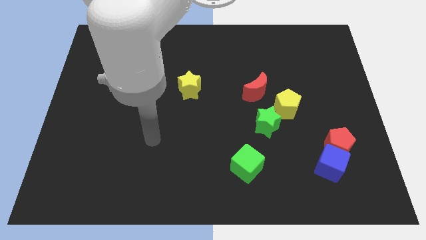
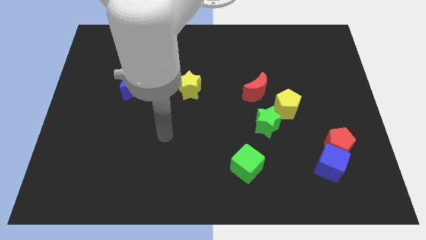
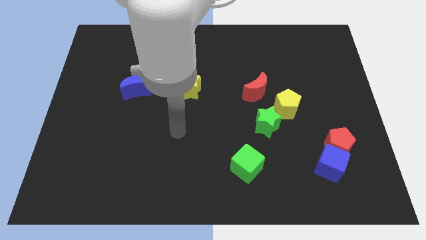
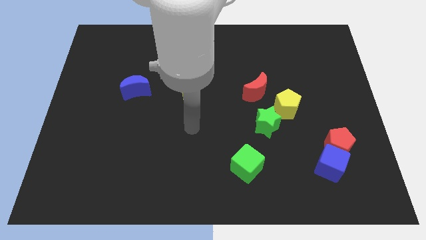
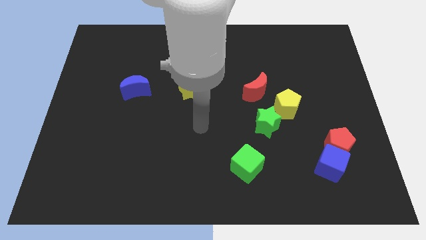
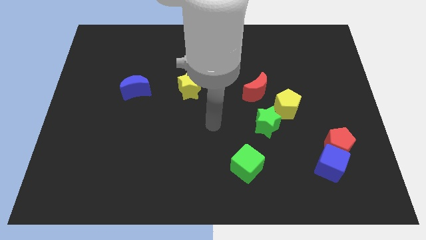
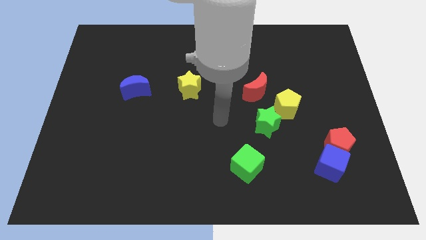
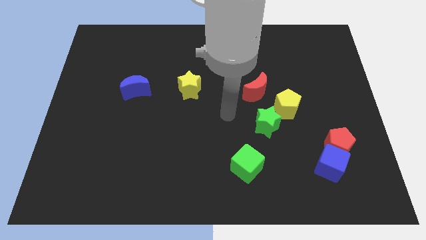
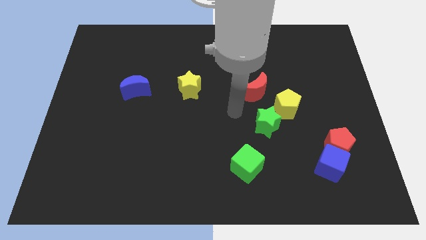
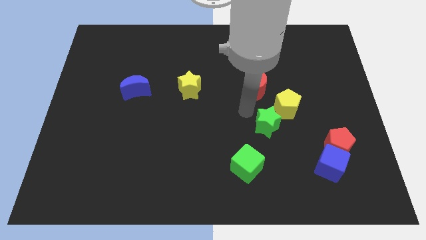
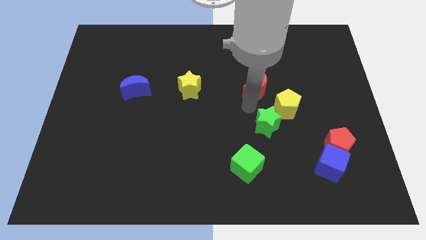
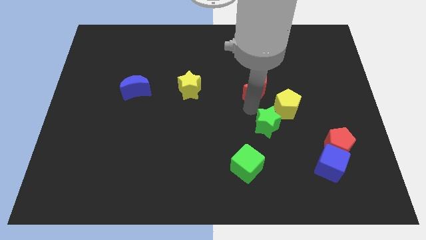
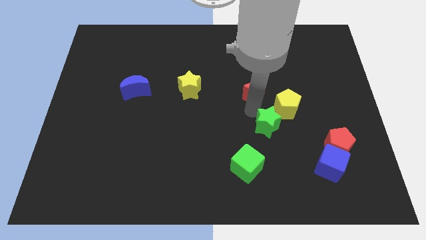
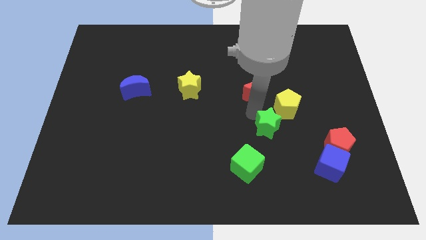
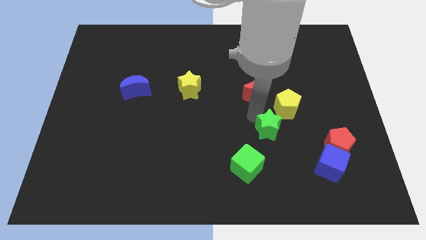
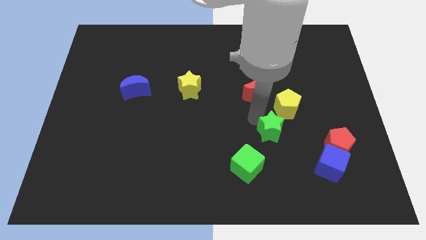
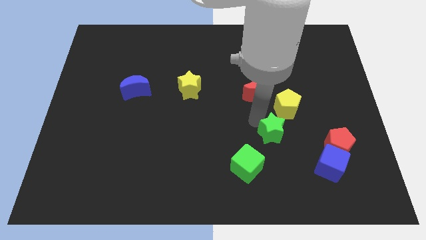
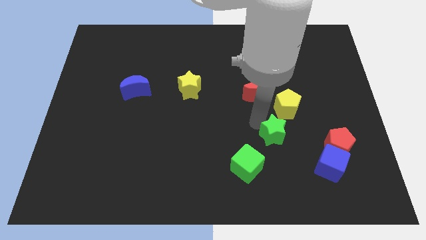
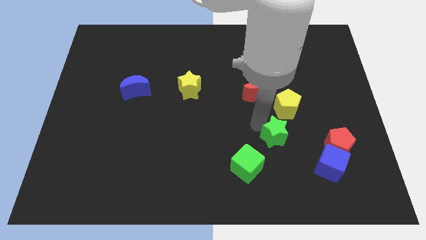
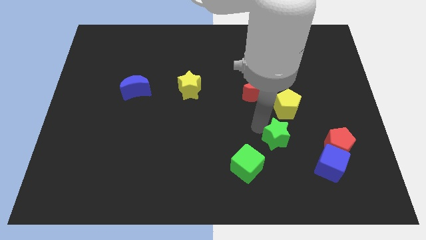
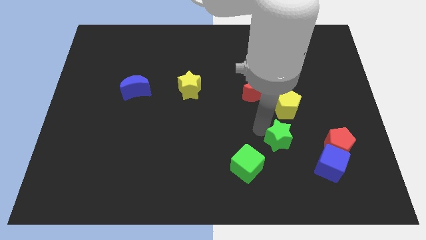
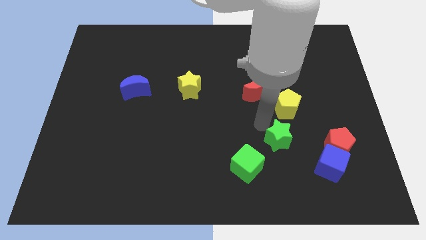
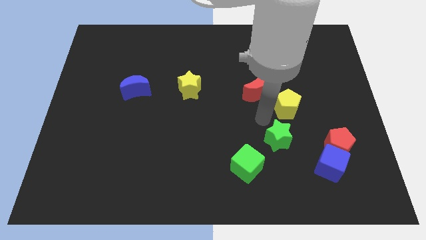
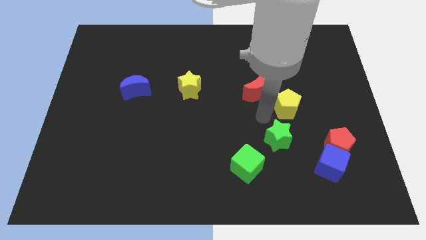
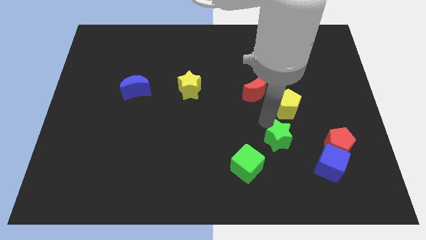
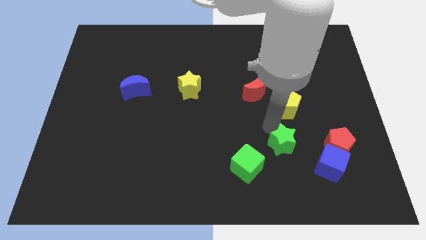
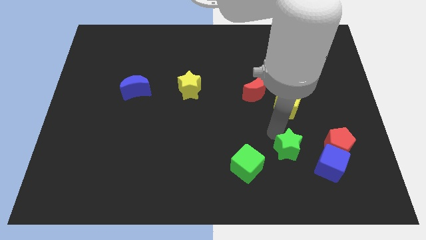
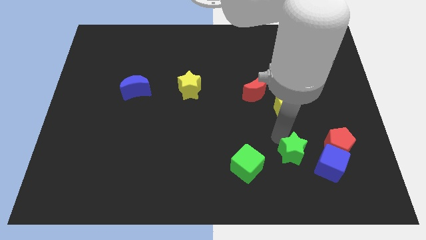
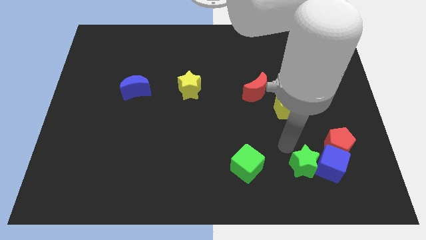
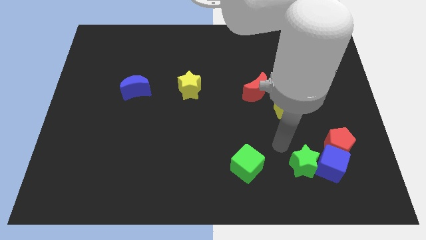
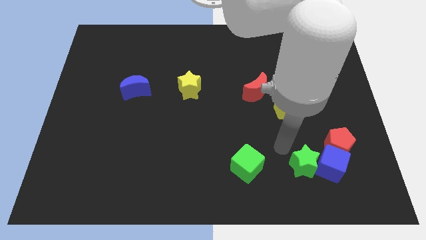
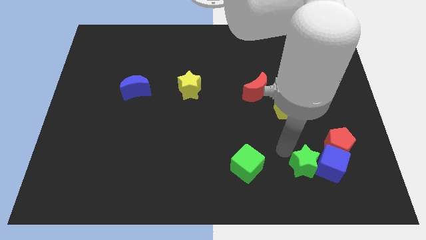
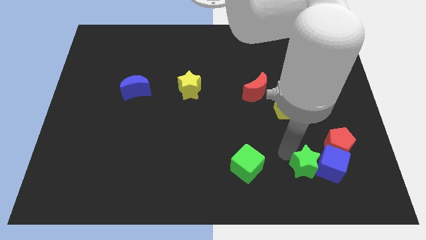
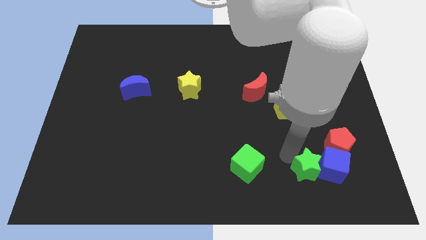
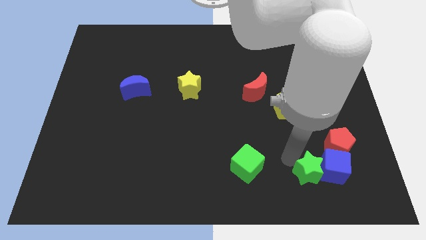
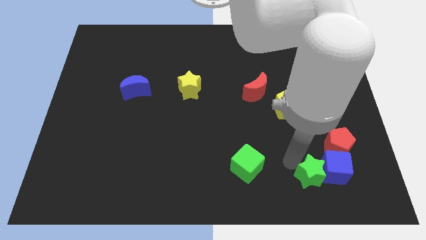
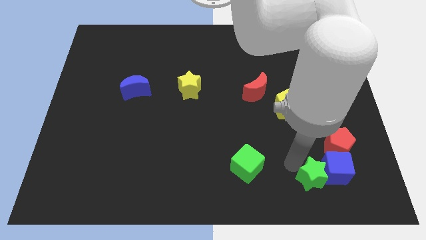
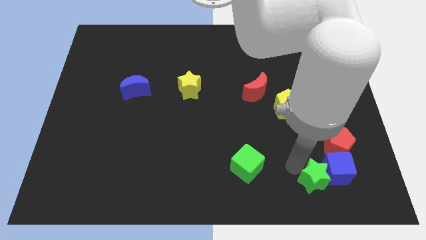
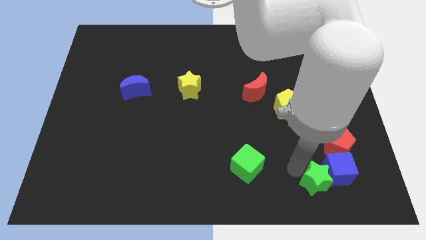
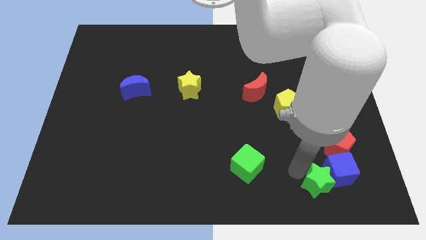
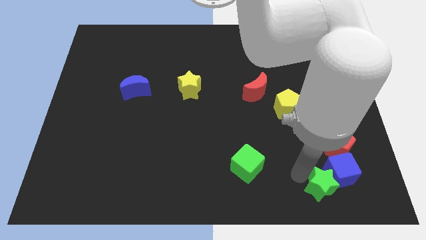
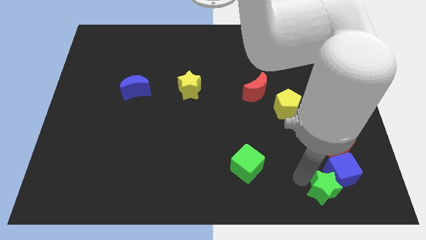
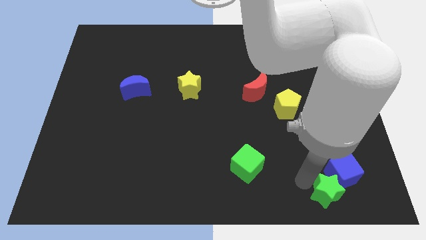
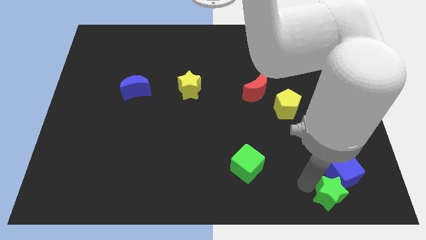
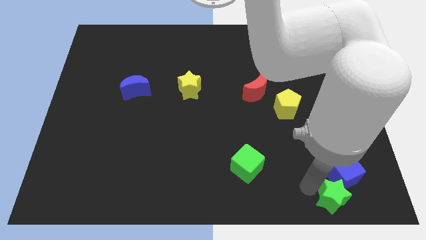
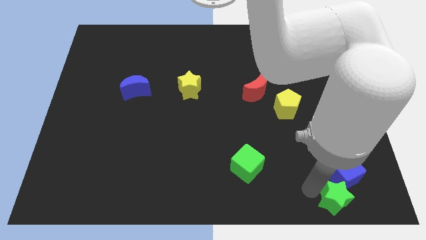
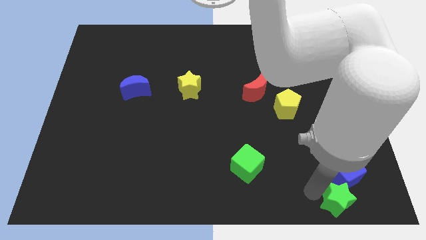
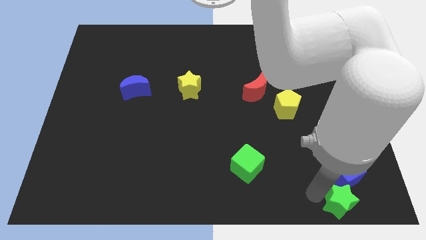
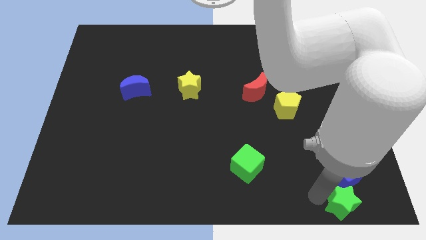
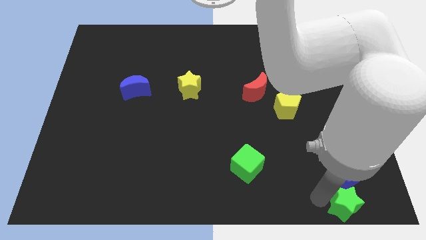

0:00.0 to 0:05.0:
move the green star to the bottom right
